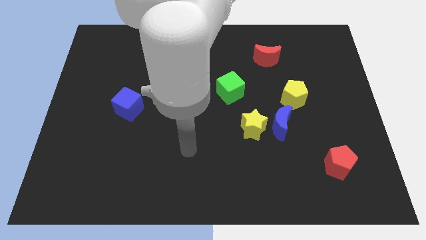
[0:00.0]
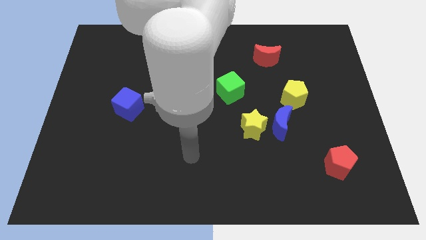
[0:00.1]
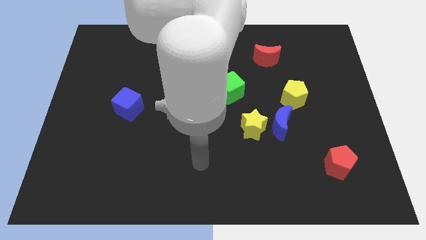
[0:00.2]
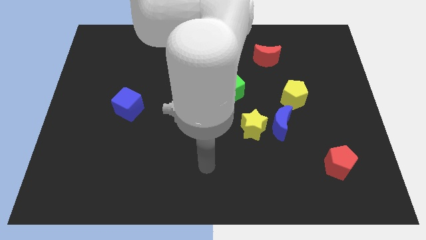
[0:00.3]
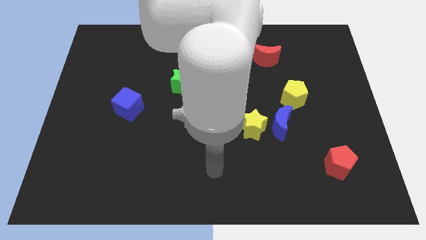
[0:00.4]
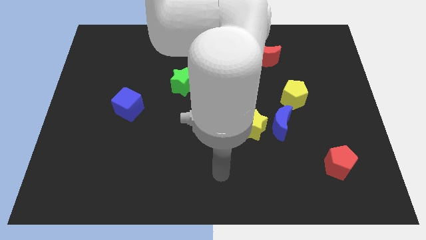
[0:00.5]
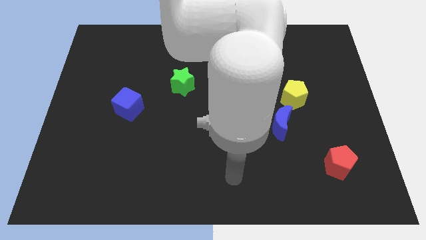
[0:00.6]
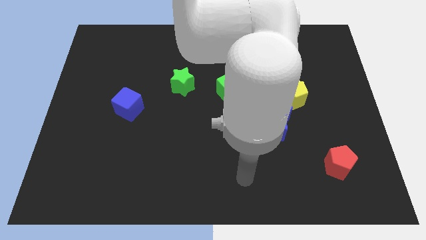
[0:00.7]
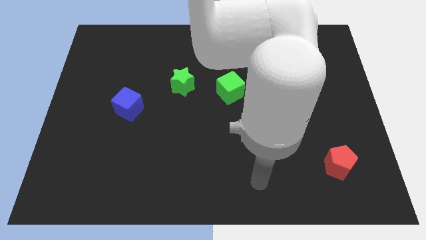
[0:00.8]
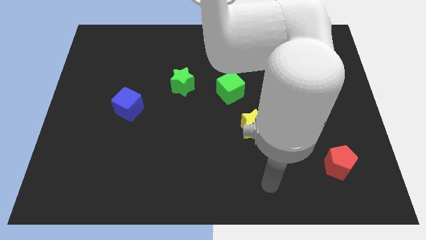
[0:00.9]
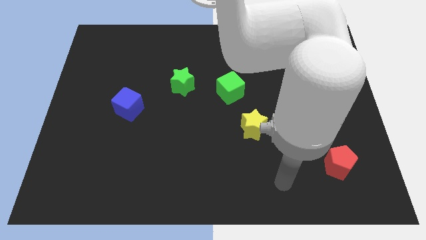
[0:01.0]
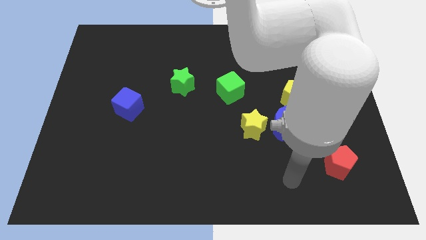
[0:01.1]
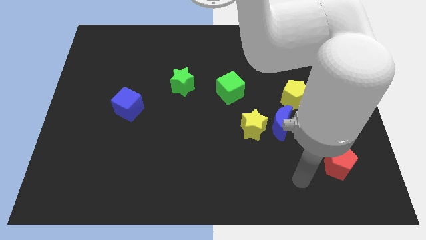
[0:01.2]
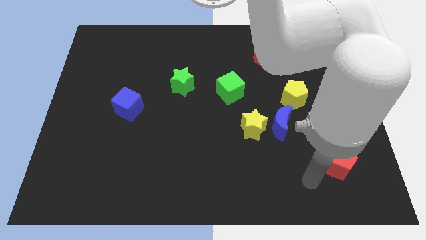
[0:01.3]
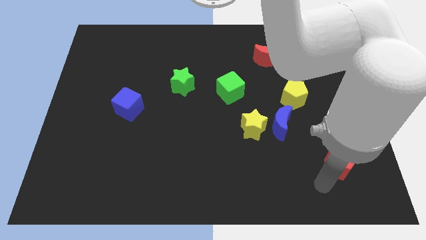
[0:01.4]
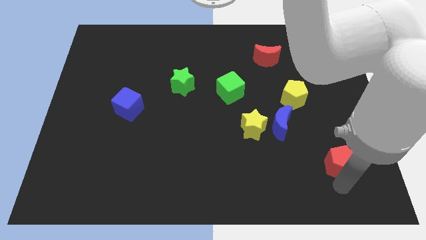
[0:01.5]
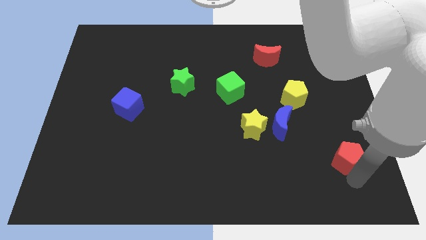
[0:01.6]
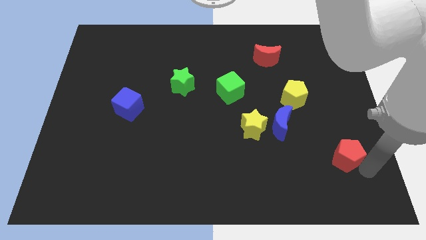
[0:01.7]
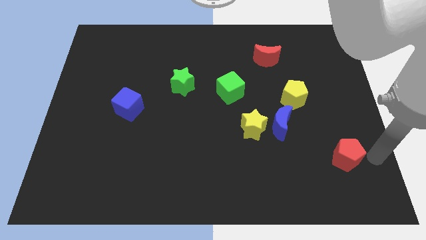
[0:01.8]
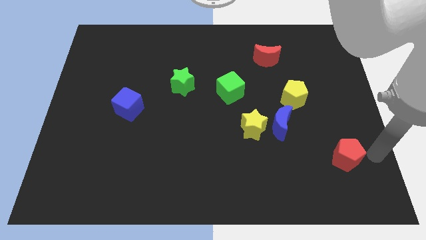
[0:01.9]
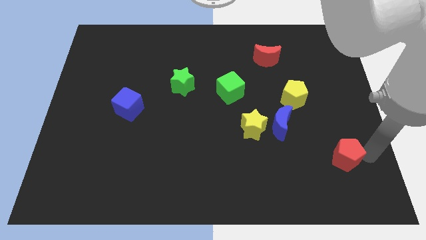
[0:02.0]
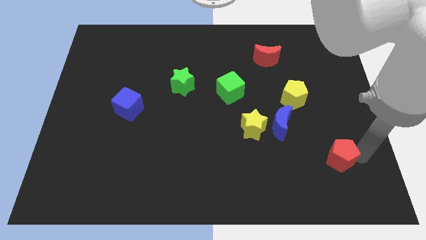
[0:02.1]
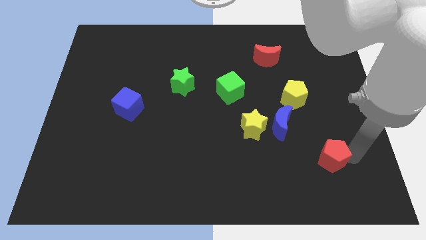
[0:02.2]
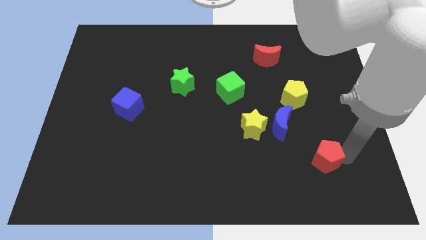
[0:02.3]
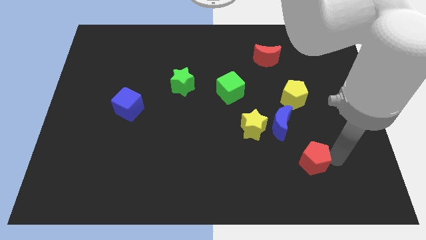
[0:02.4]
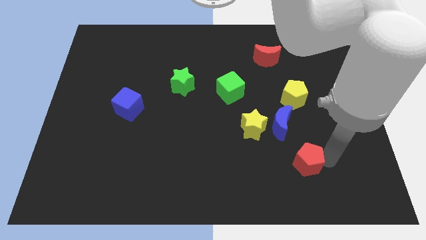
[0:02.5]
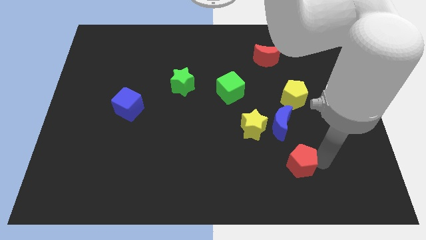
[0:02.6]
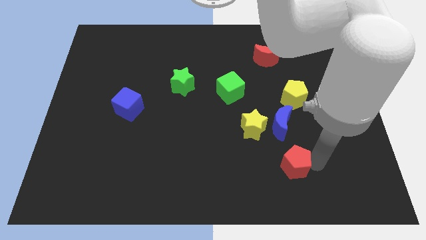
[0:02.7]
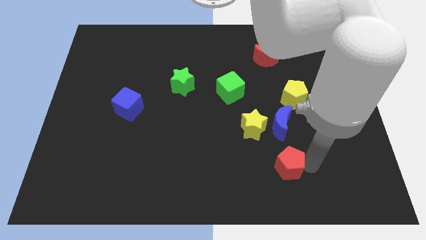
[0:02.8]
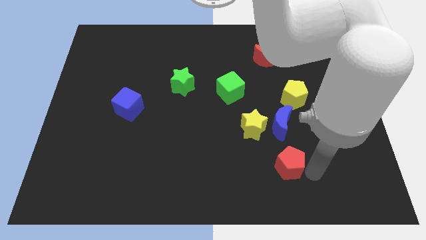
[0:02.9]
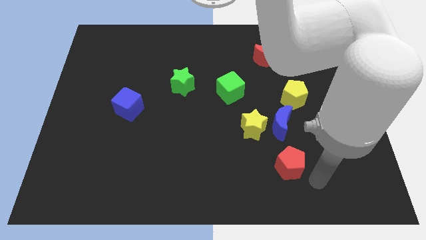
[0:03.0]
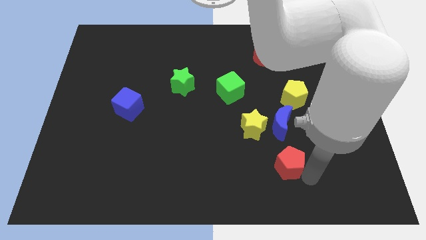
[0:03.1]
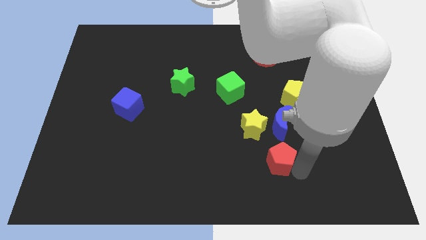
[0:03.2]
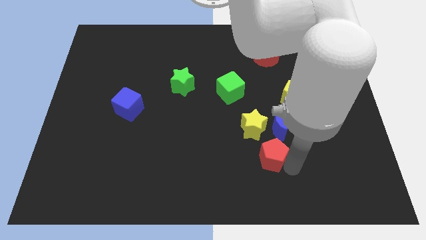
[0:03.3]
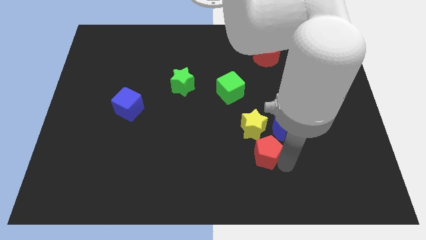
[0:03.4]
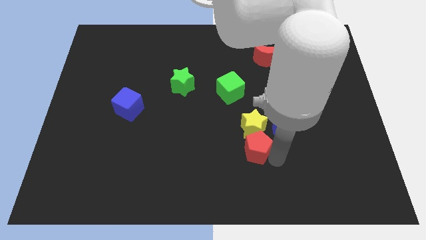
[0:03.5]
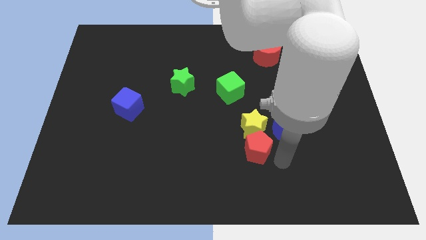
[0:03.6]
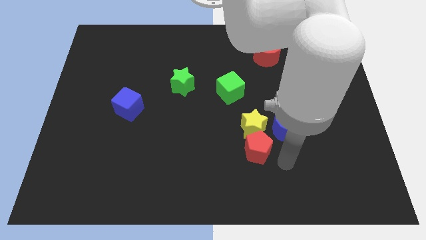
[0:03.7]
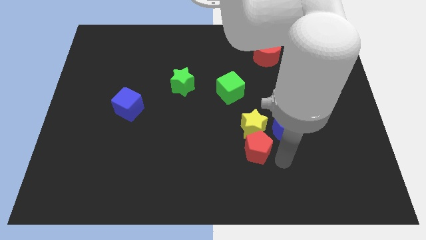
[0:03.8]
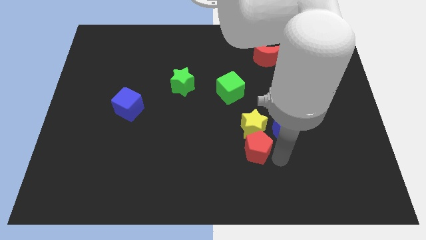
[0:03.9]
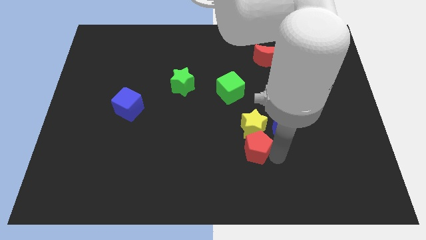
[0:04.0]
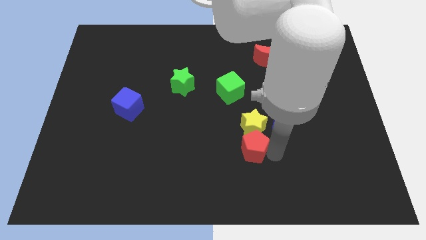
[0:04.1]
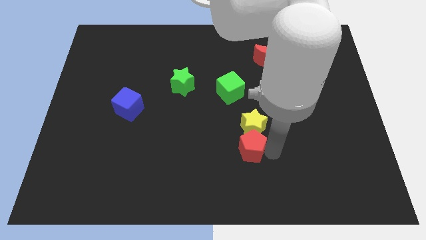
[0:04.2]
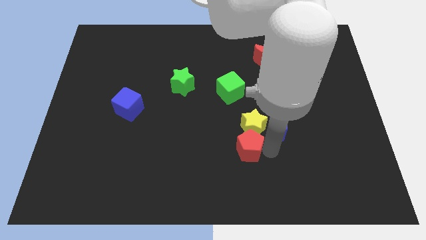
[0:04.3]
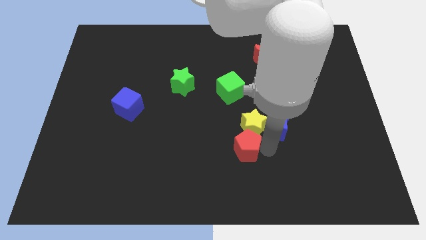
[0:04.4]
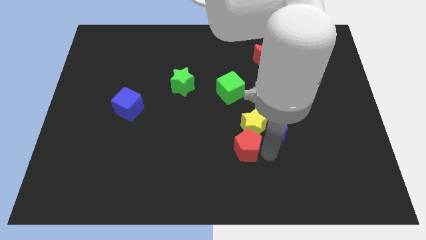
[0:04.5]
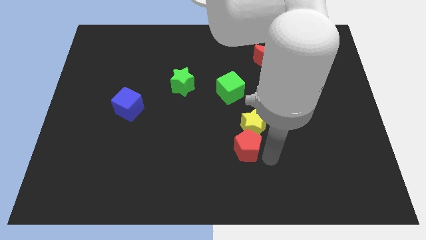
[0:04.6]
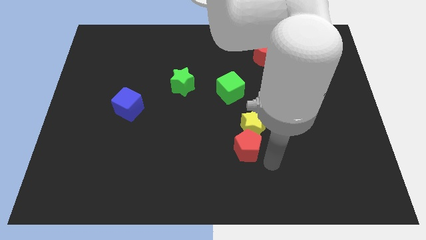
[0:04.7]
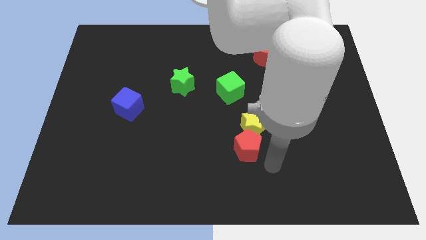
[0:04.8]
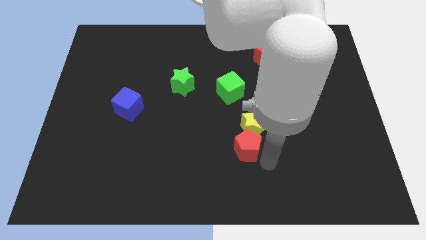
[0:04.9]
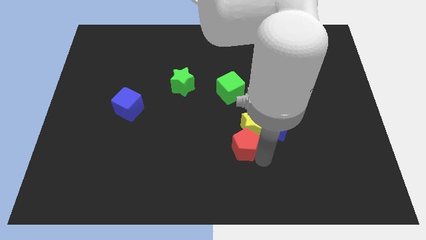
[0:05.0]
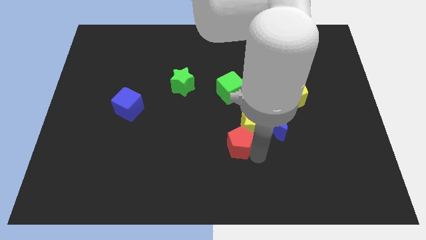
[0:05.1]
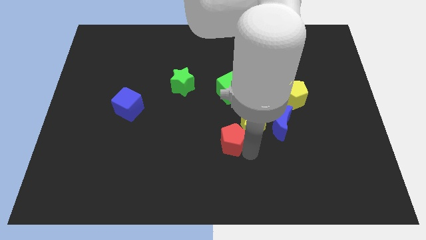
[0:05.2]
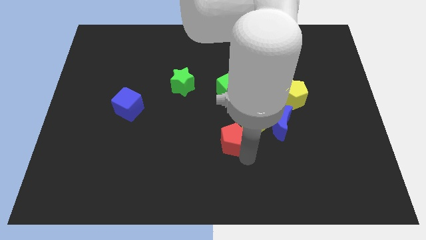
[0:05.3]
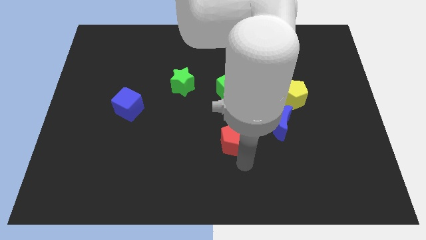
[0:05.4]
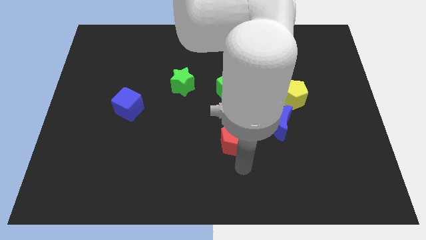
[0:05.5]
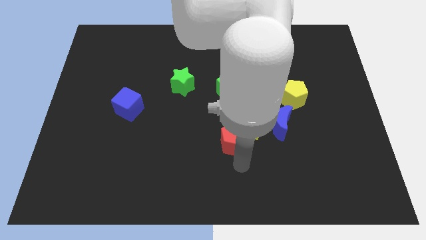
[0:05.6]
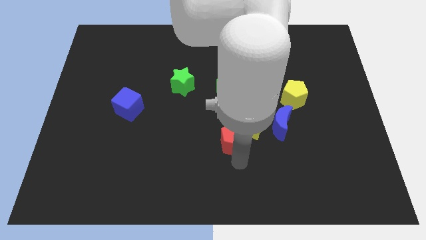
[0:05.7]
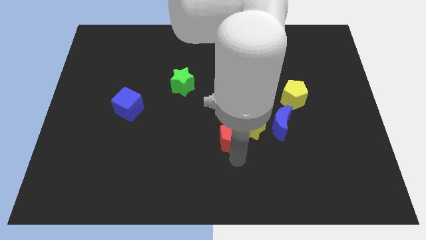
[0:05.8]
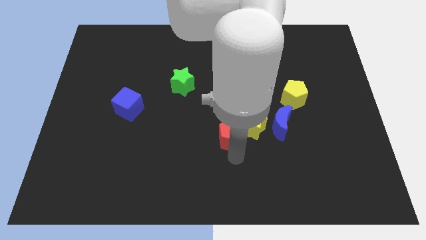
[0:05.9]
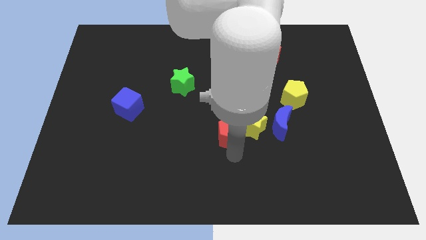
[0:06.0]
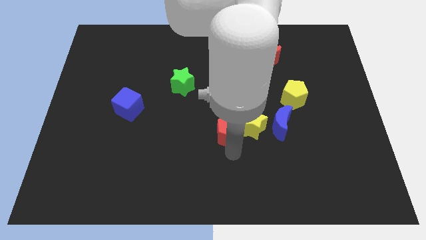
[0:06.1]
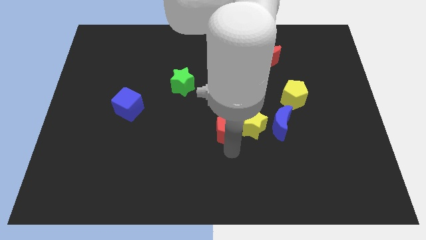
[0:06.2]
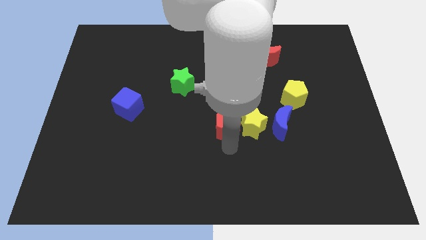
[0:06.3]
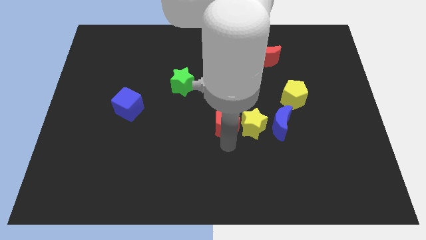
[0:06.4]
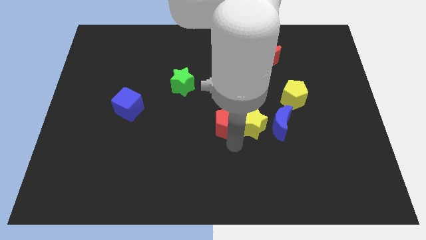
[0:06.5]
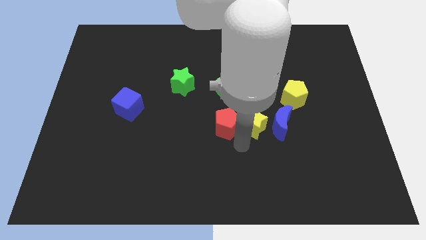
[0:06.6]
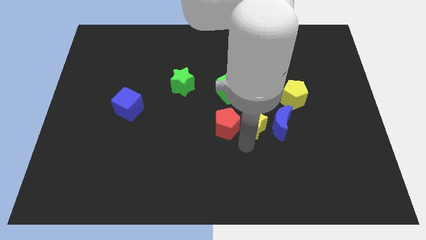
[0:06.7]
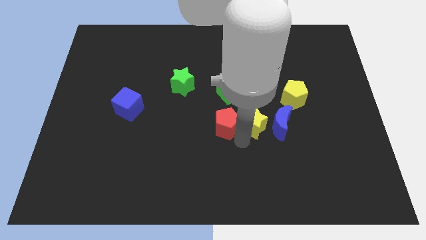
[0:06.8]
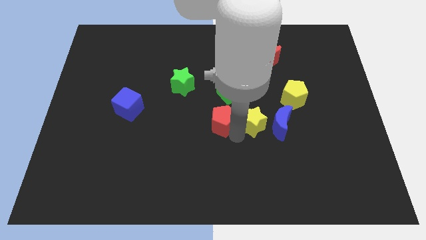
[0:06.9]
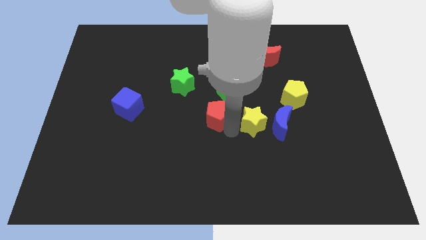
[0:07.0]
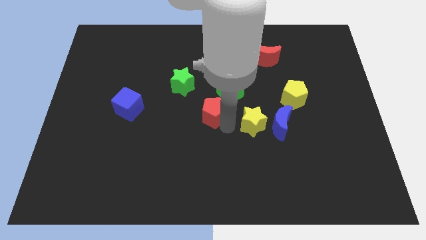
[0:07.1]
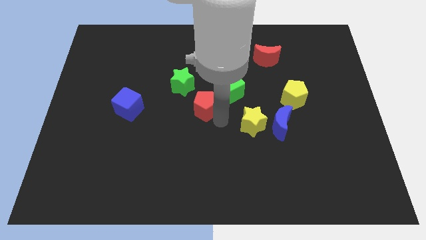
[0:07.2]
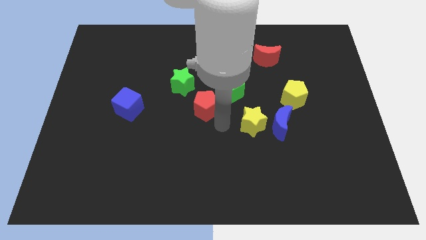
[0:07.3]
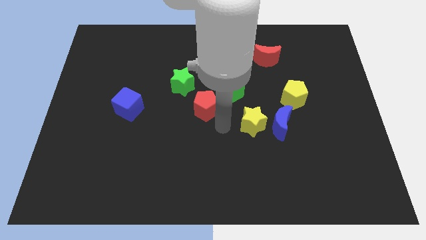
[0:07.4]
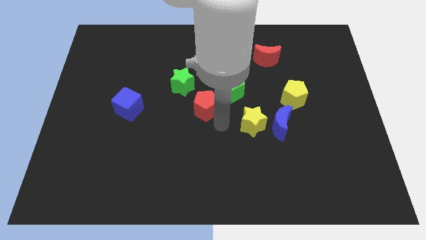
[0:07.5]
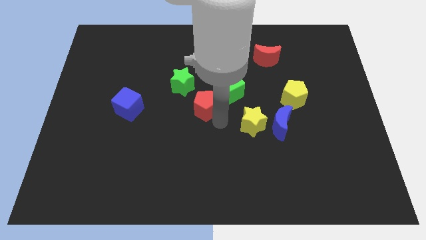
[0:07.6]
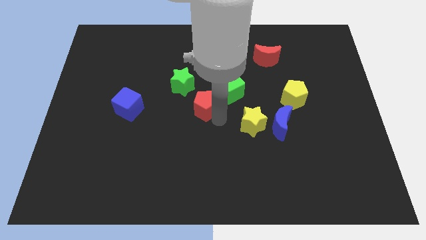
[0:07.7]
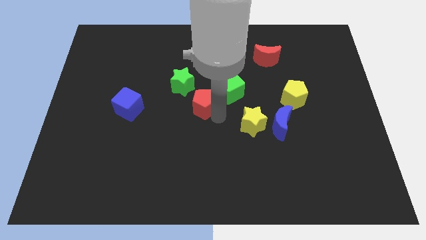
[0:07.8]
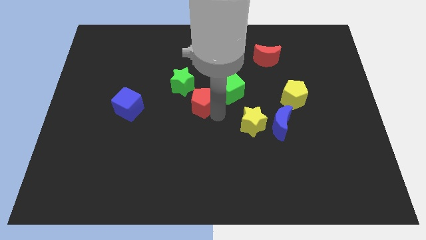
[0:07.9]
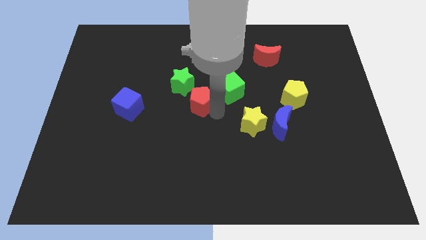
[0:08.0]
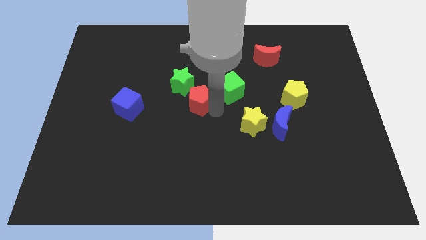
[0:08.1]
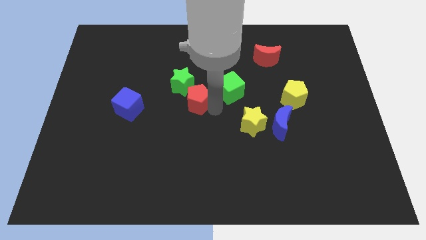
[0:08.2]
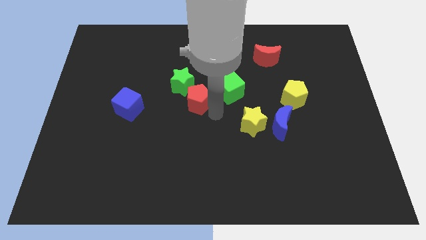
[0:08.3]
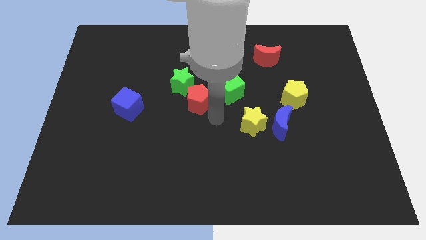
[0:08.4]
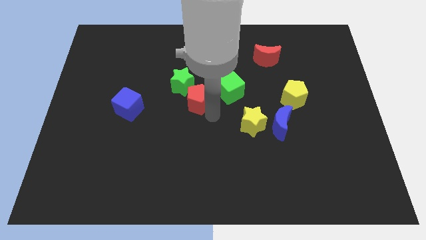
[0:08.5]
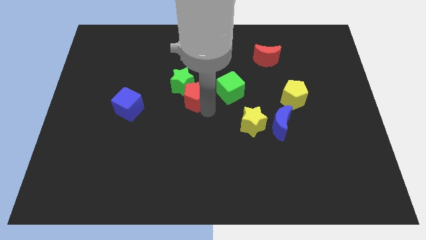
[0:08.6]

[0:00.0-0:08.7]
push the red pentagon towards the green star
